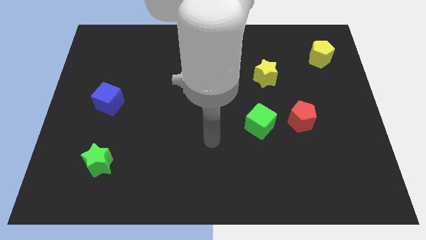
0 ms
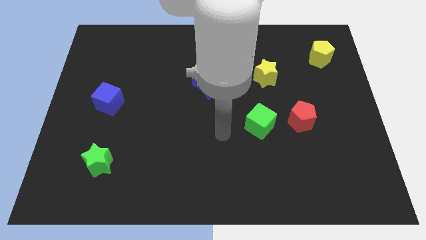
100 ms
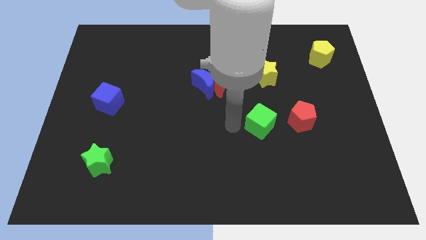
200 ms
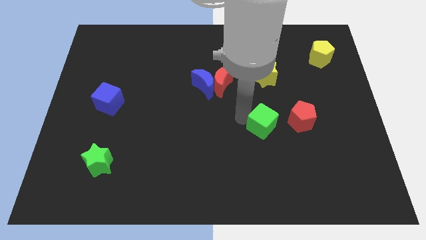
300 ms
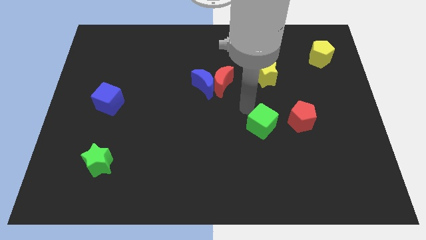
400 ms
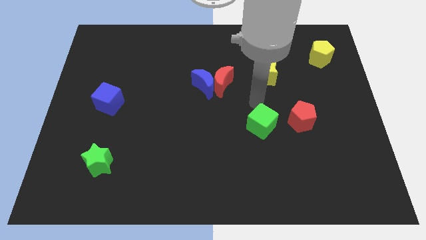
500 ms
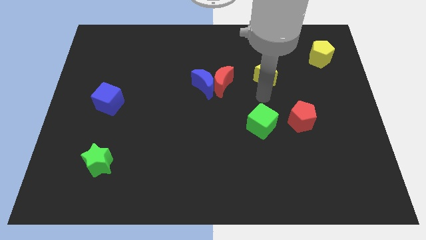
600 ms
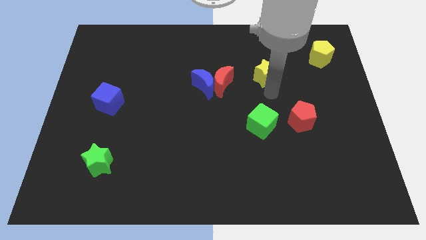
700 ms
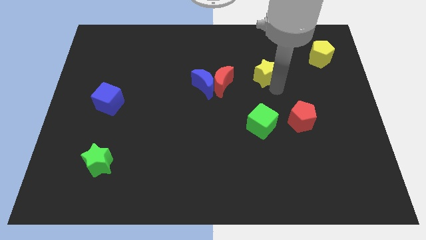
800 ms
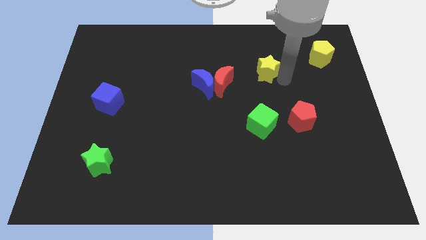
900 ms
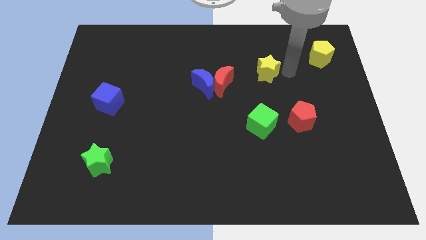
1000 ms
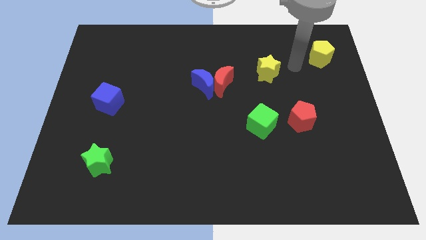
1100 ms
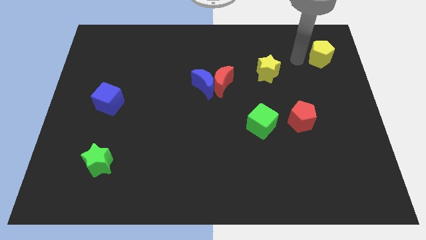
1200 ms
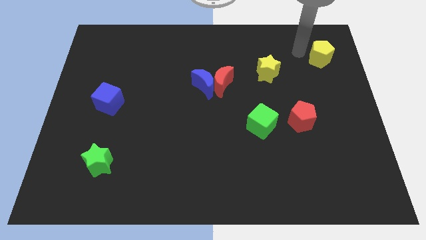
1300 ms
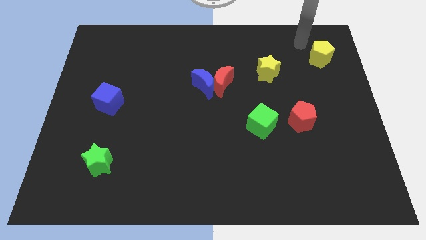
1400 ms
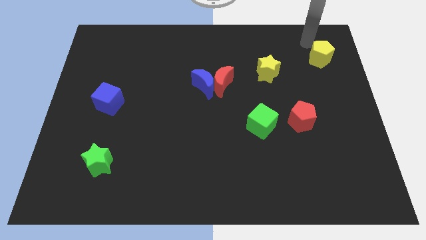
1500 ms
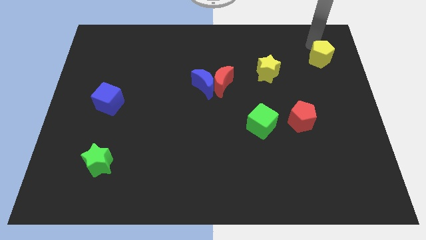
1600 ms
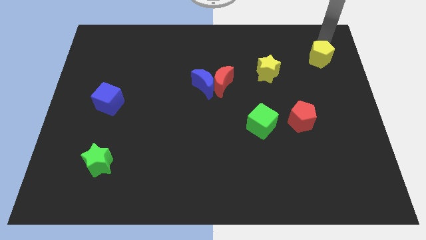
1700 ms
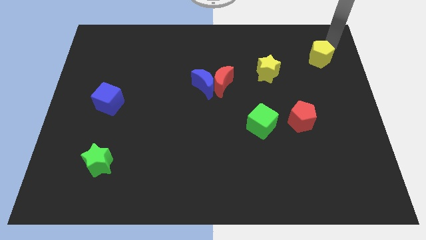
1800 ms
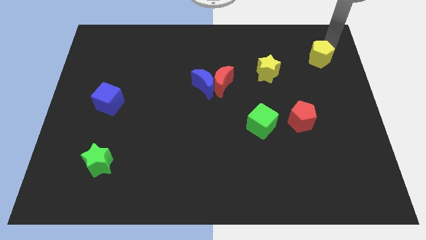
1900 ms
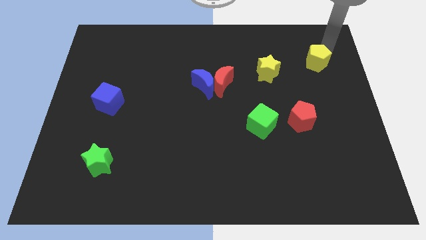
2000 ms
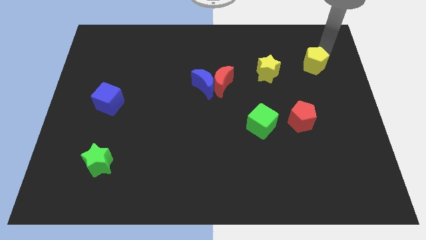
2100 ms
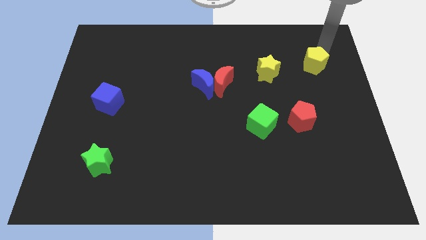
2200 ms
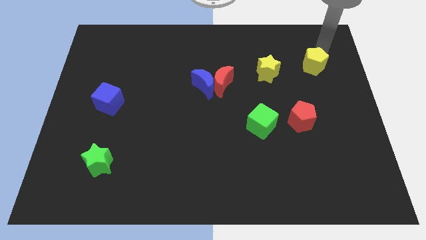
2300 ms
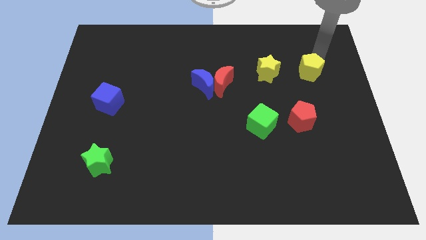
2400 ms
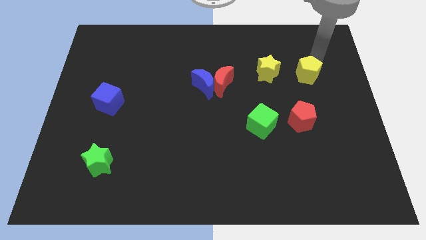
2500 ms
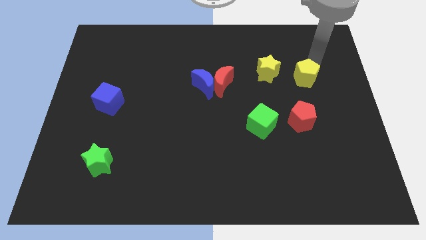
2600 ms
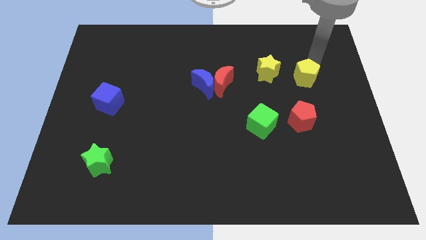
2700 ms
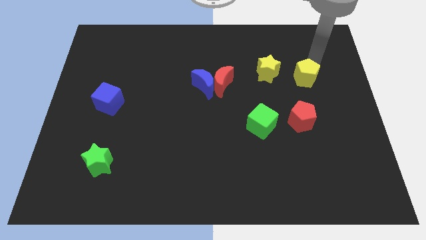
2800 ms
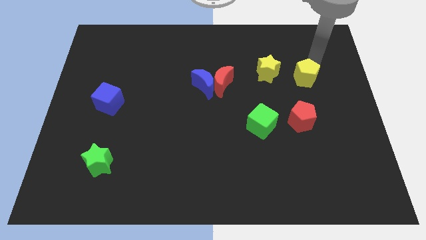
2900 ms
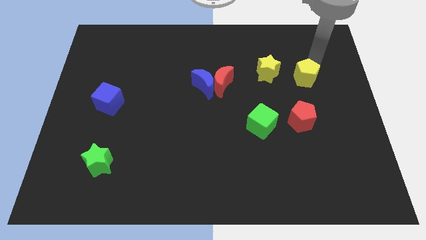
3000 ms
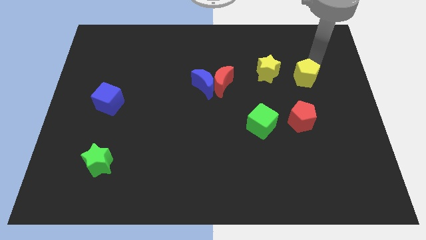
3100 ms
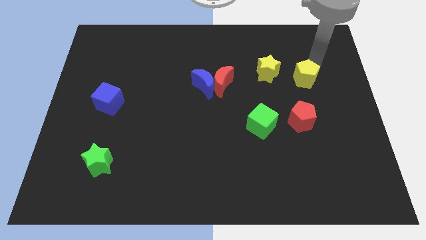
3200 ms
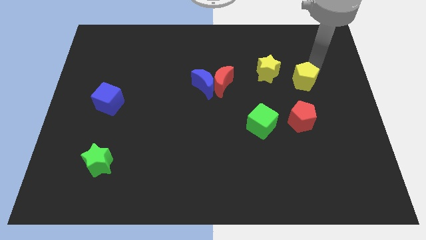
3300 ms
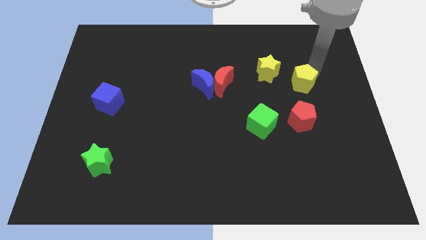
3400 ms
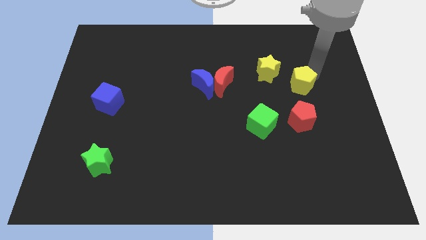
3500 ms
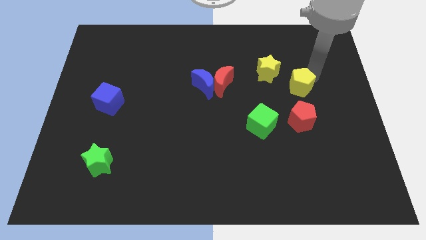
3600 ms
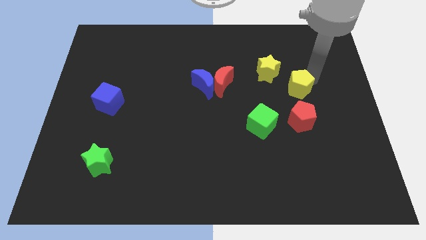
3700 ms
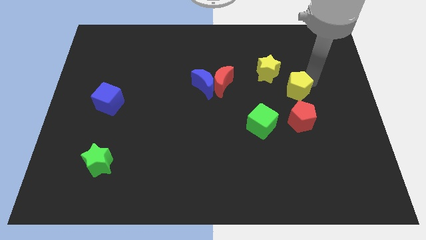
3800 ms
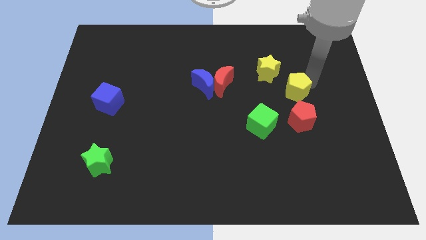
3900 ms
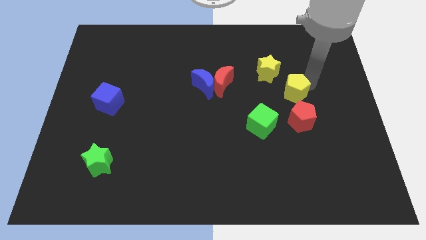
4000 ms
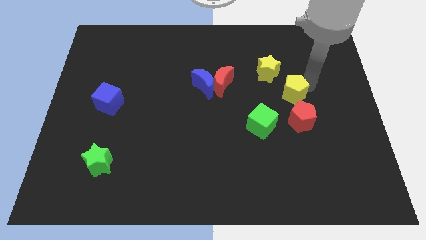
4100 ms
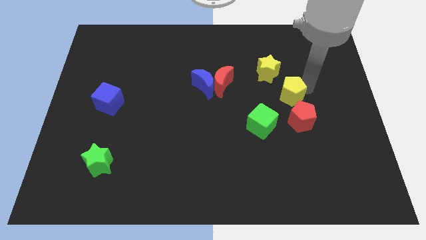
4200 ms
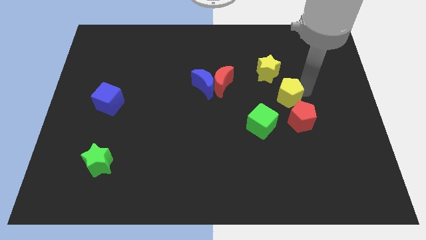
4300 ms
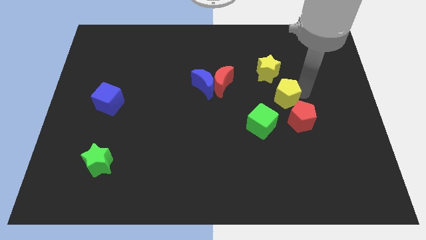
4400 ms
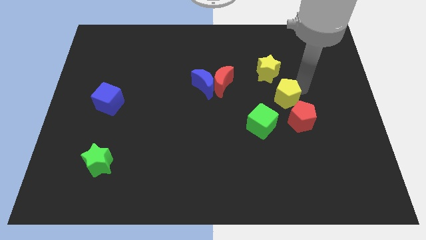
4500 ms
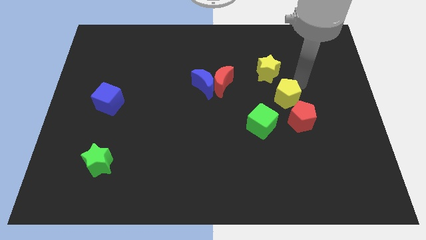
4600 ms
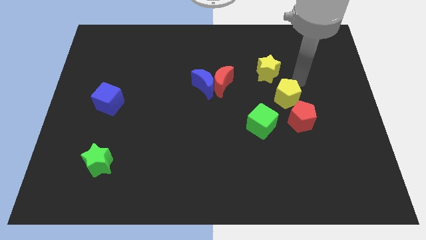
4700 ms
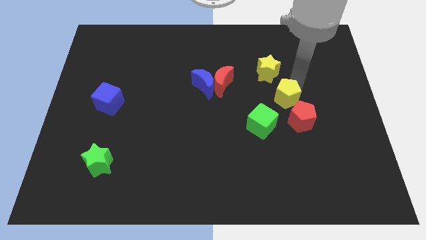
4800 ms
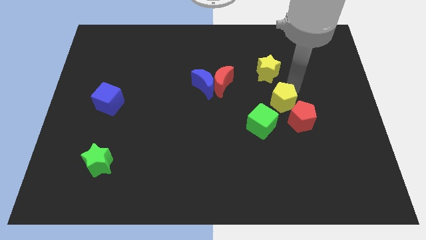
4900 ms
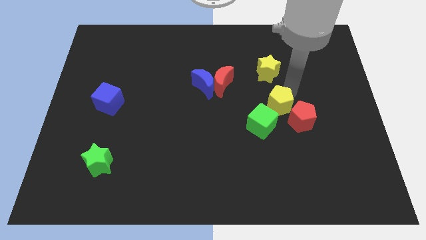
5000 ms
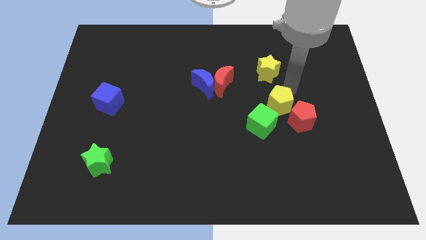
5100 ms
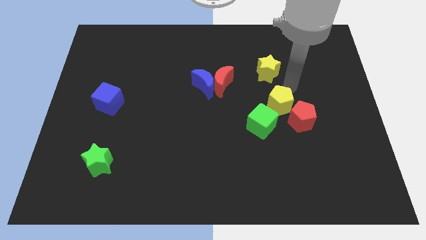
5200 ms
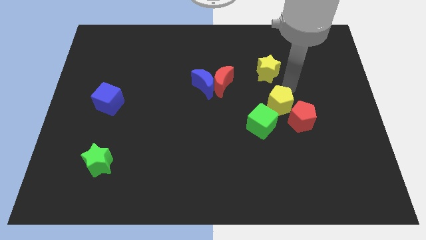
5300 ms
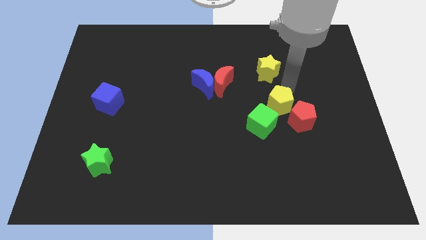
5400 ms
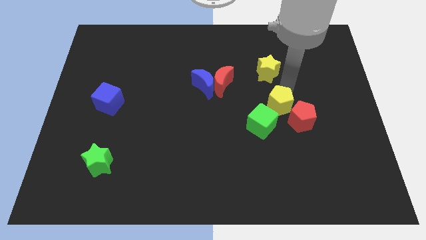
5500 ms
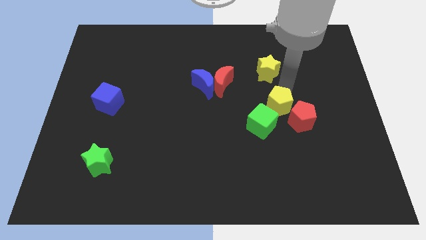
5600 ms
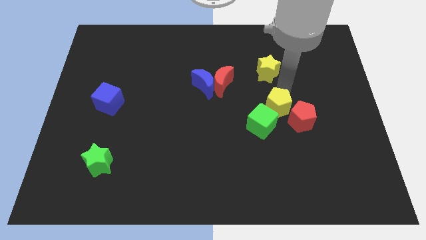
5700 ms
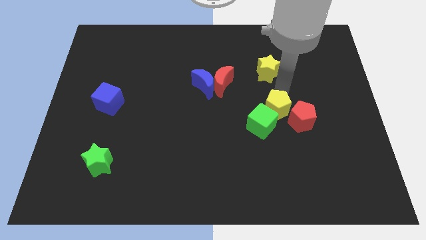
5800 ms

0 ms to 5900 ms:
push the yellow pentagon close to the green cube

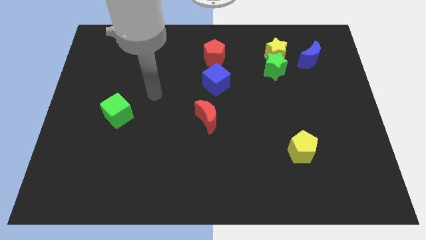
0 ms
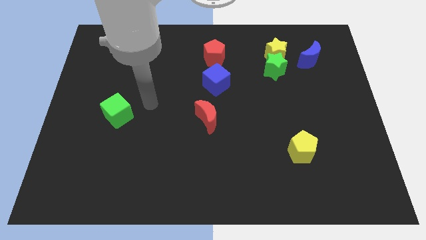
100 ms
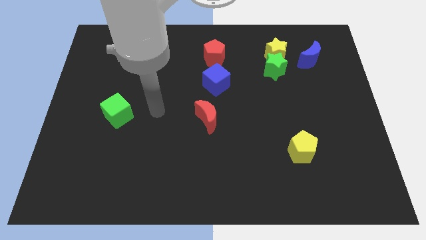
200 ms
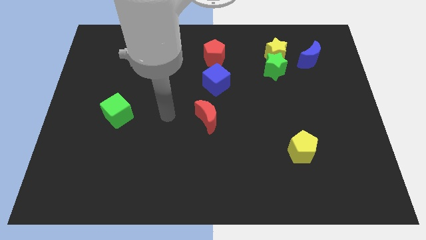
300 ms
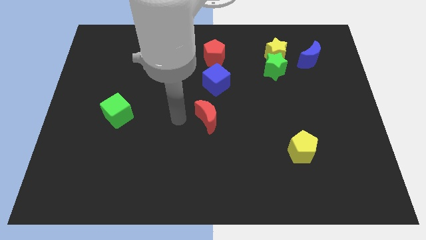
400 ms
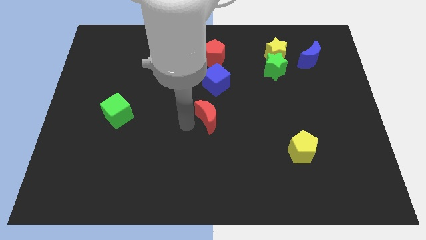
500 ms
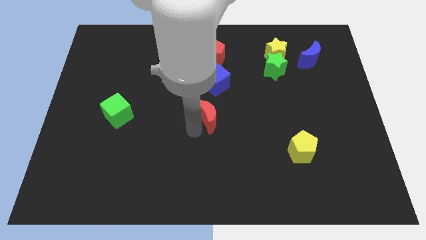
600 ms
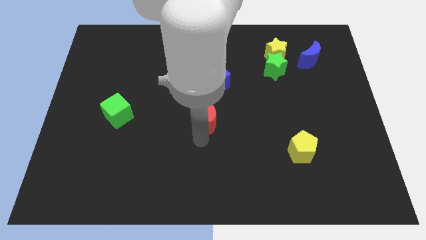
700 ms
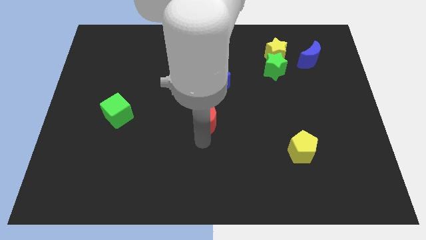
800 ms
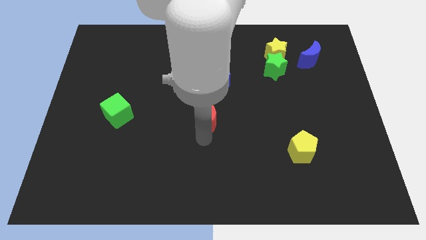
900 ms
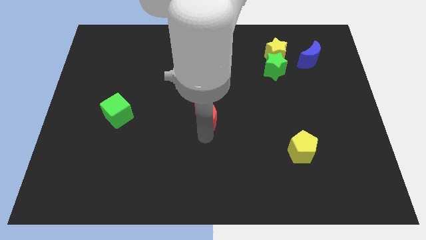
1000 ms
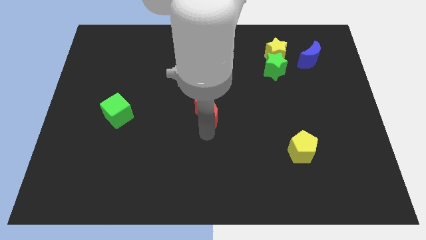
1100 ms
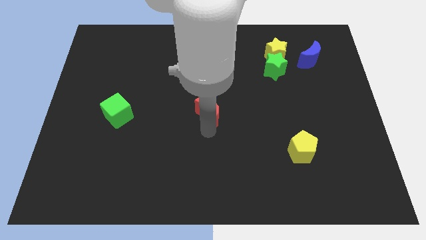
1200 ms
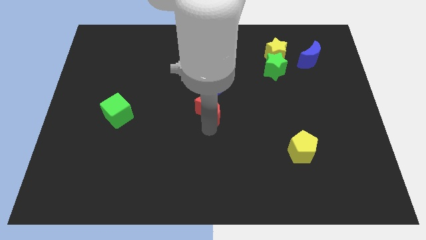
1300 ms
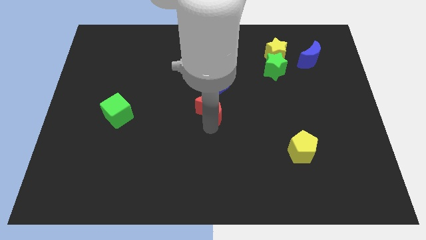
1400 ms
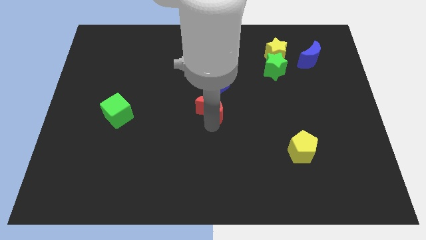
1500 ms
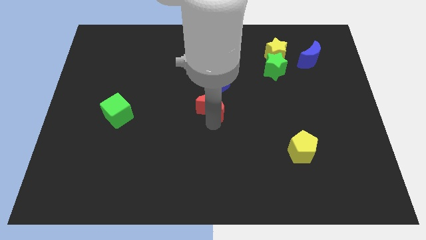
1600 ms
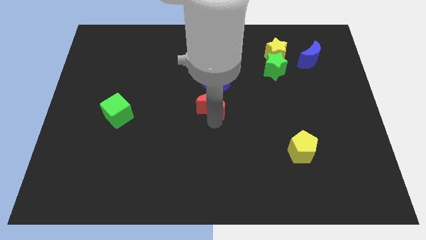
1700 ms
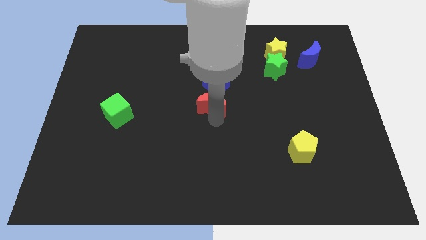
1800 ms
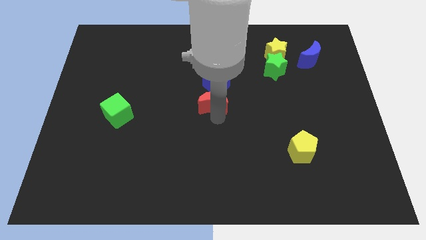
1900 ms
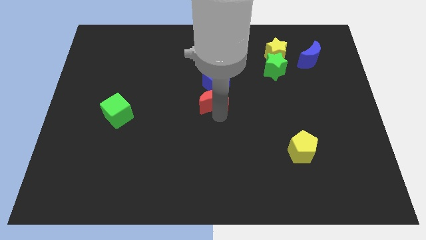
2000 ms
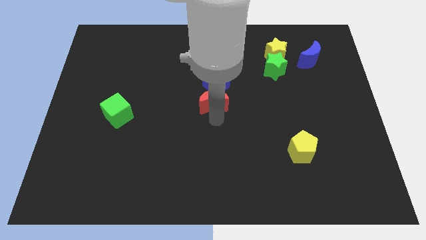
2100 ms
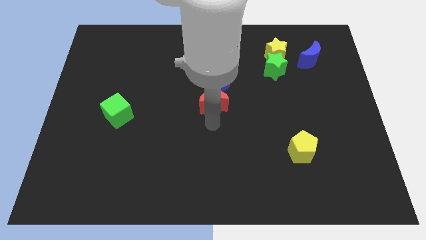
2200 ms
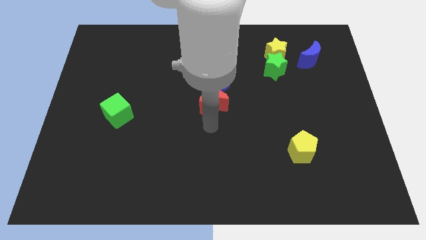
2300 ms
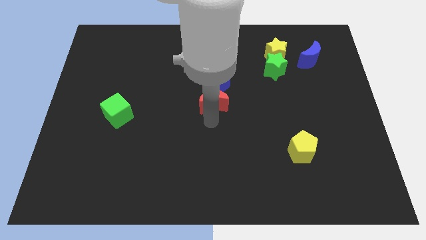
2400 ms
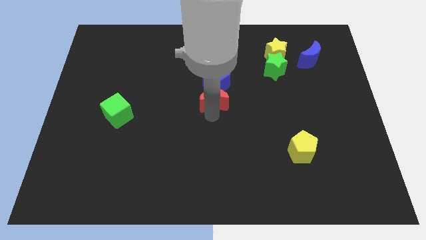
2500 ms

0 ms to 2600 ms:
put the red moon towards the blue cube

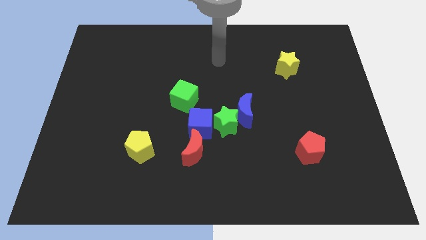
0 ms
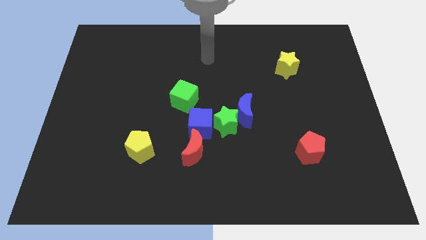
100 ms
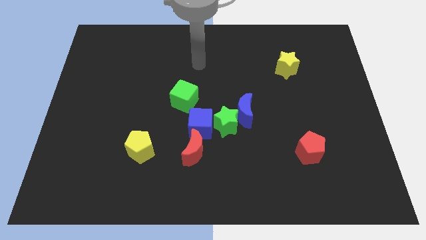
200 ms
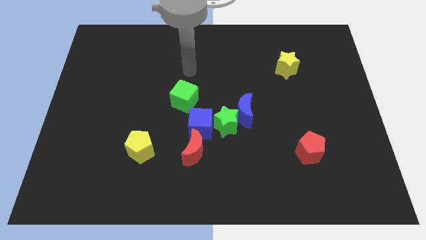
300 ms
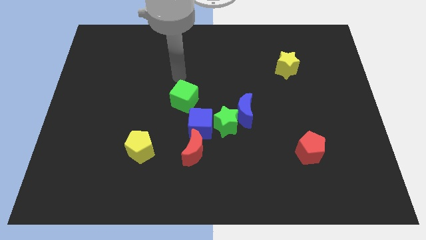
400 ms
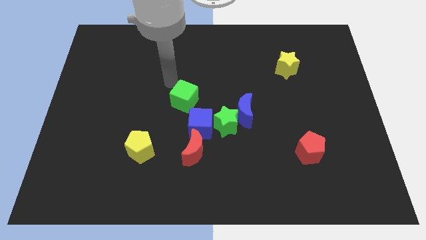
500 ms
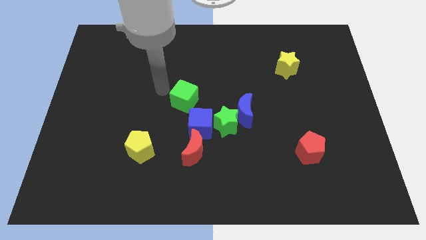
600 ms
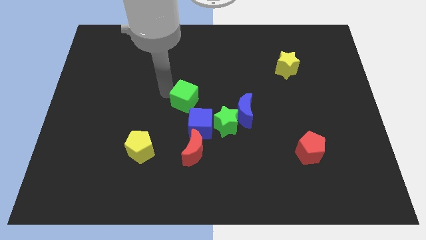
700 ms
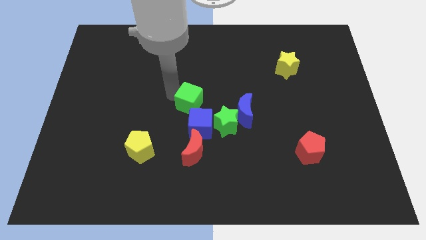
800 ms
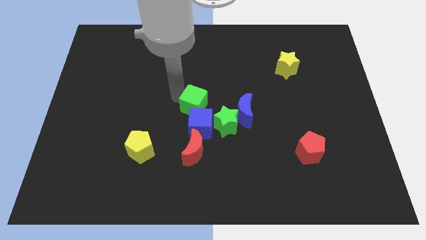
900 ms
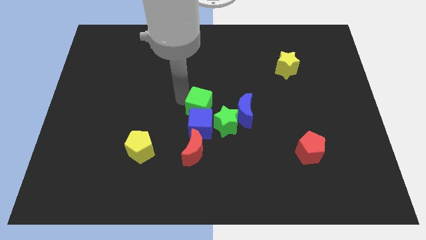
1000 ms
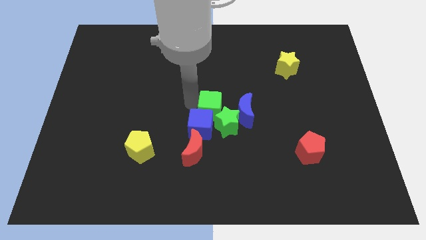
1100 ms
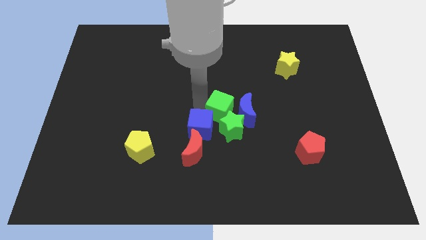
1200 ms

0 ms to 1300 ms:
put the green cube next to the blue moon
